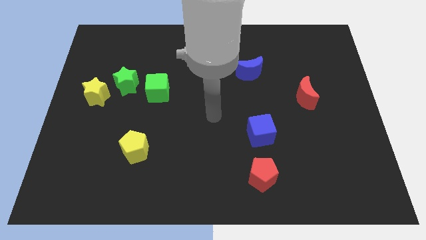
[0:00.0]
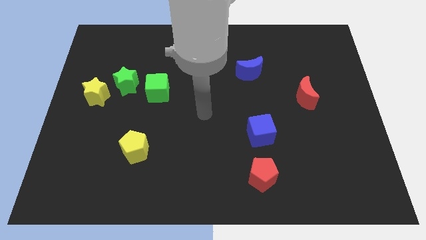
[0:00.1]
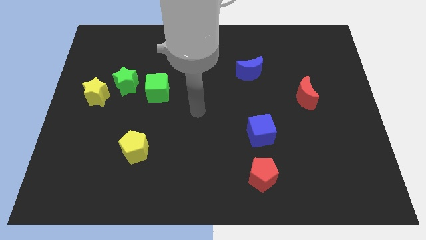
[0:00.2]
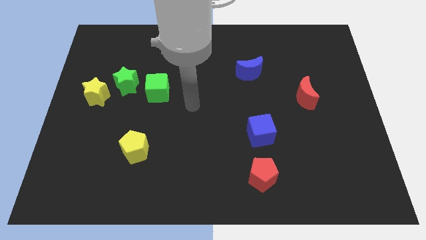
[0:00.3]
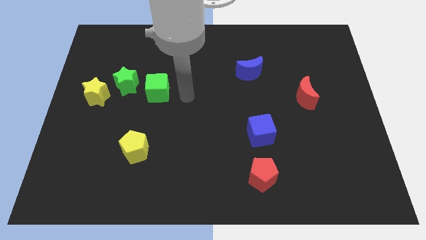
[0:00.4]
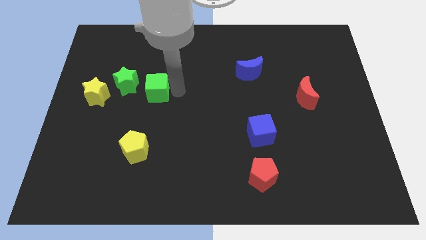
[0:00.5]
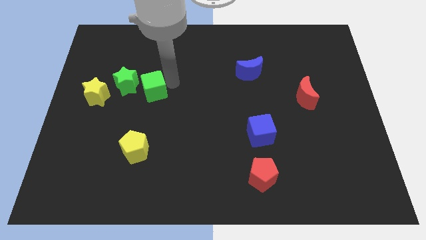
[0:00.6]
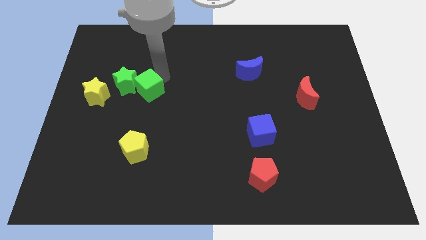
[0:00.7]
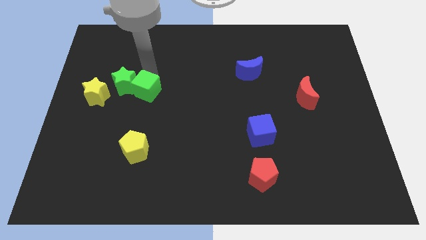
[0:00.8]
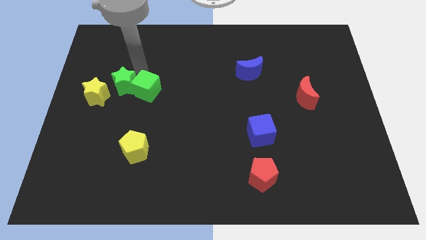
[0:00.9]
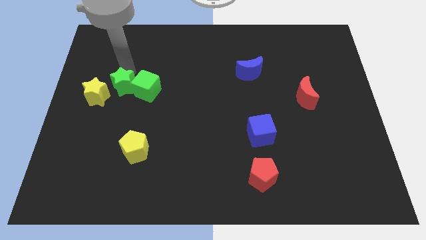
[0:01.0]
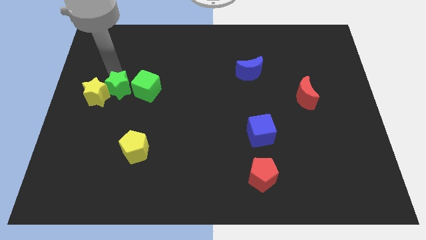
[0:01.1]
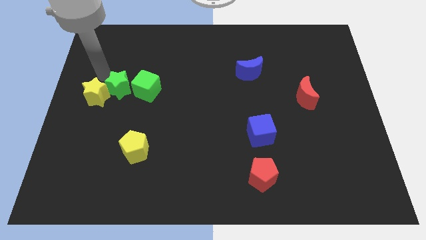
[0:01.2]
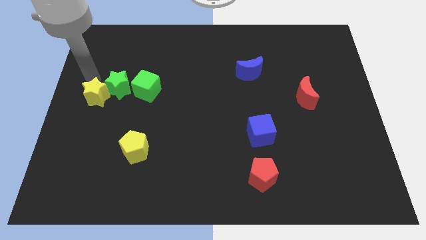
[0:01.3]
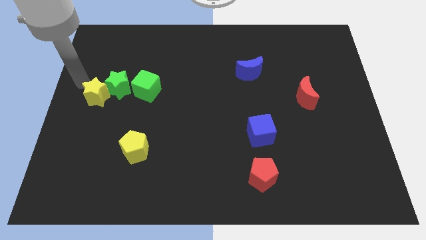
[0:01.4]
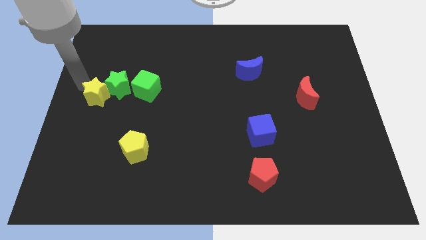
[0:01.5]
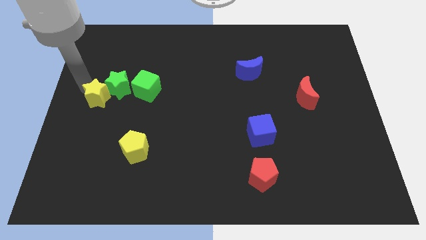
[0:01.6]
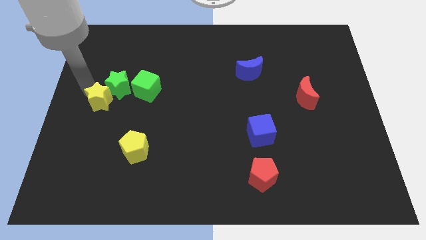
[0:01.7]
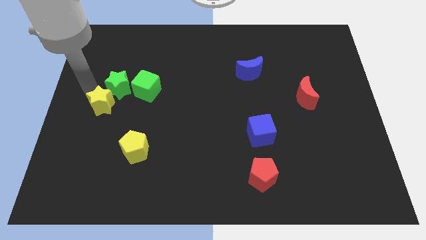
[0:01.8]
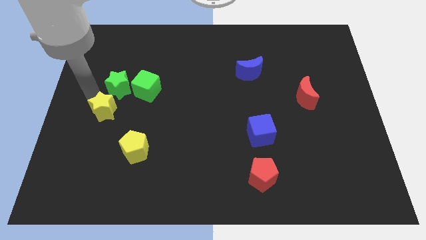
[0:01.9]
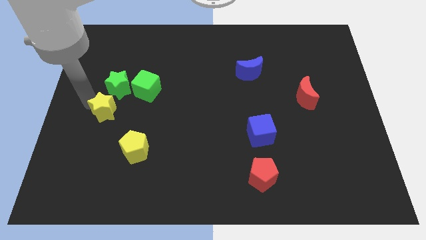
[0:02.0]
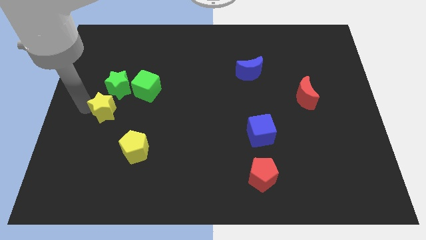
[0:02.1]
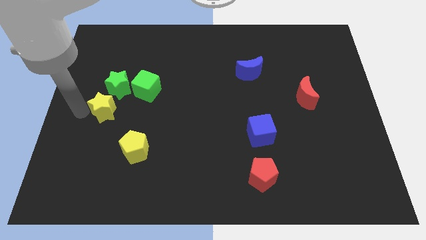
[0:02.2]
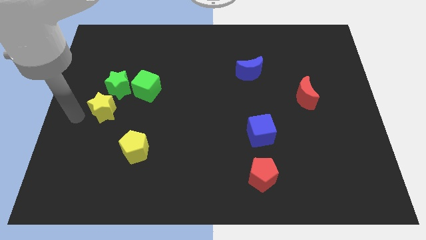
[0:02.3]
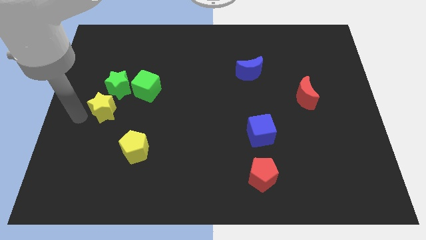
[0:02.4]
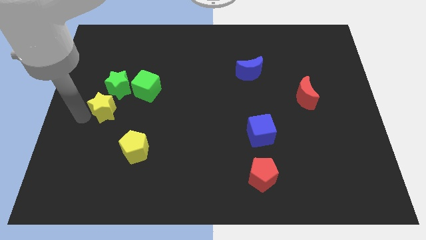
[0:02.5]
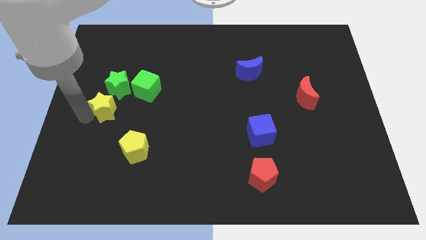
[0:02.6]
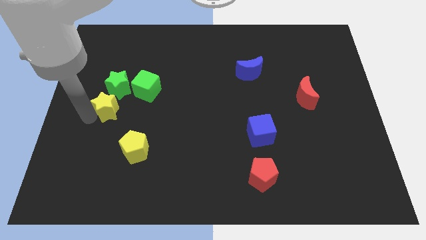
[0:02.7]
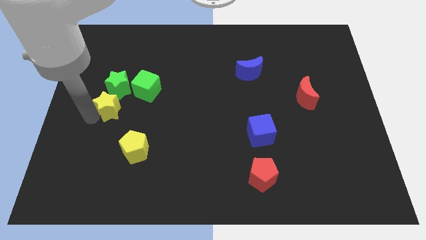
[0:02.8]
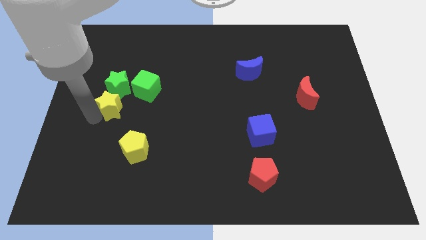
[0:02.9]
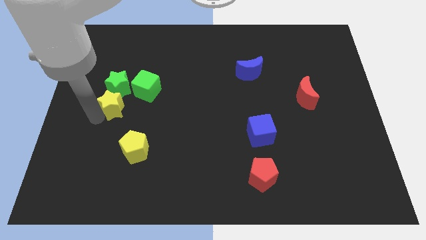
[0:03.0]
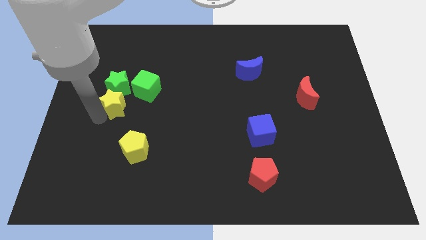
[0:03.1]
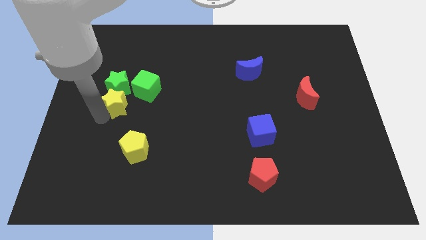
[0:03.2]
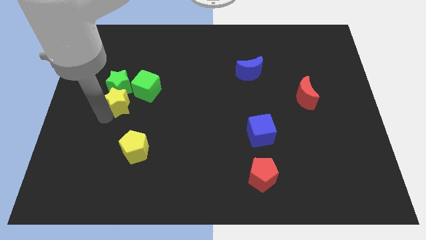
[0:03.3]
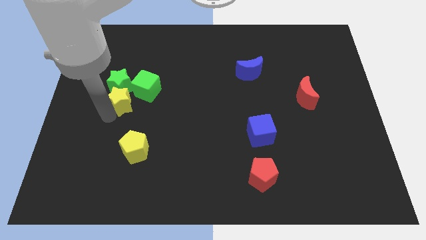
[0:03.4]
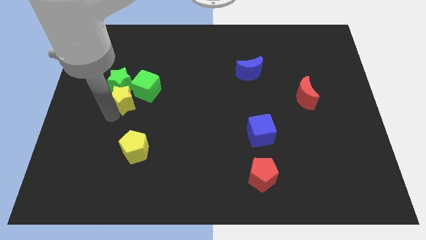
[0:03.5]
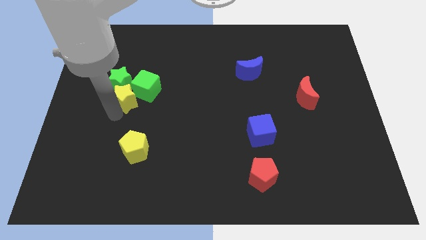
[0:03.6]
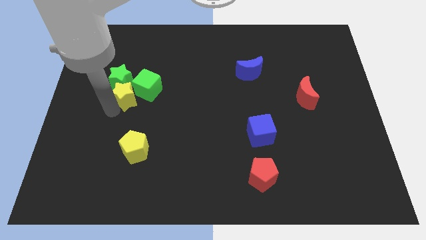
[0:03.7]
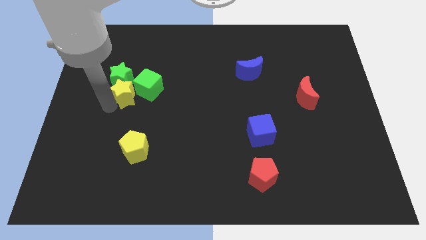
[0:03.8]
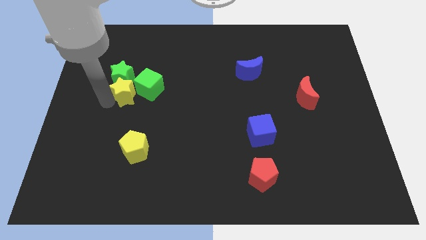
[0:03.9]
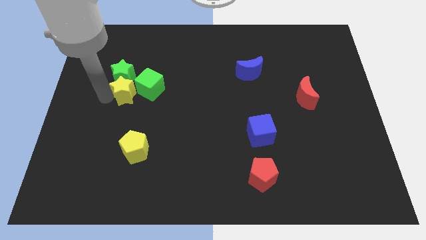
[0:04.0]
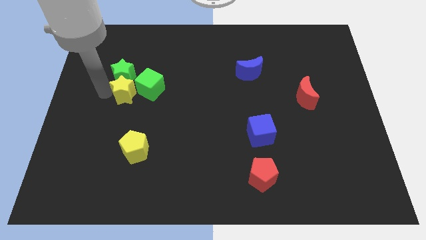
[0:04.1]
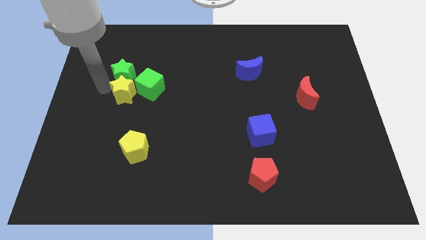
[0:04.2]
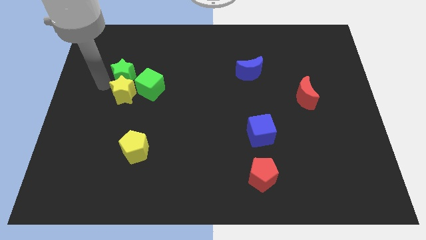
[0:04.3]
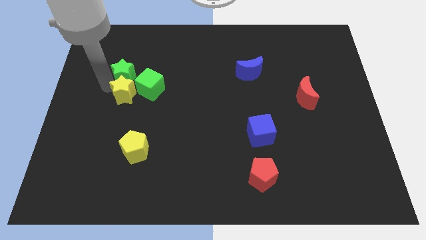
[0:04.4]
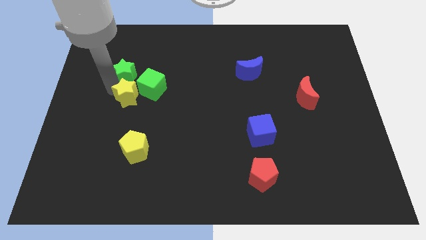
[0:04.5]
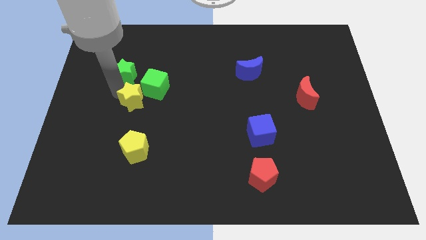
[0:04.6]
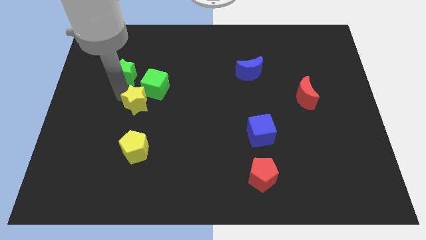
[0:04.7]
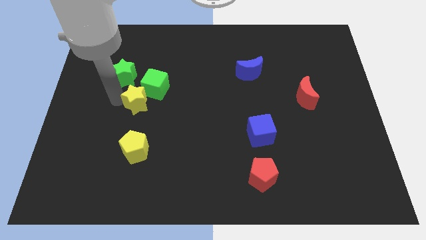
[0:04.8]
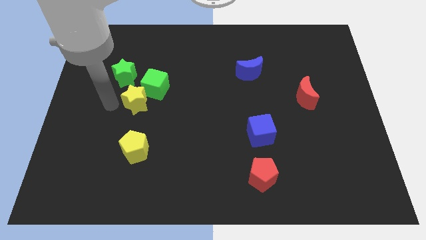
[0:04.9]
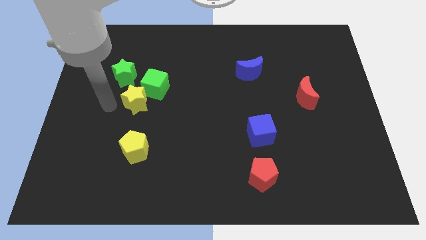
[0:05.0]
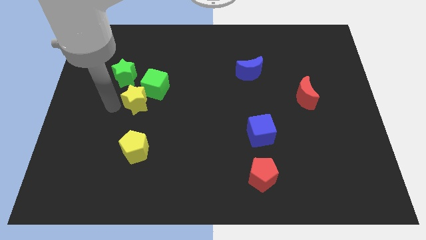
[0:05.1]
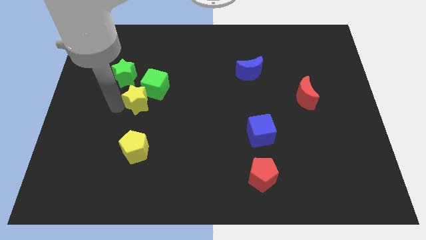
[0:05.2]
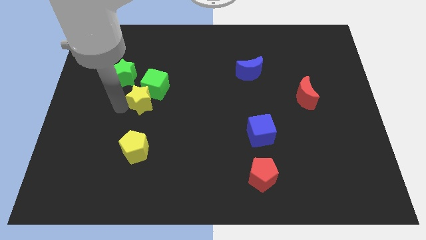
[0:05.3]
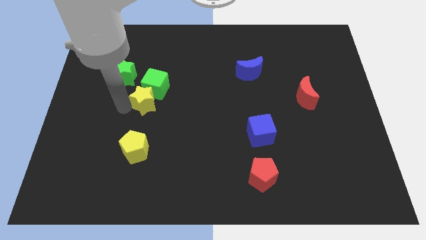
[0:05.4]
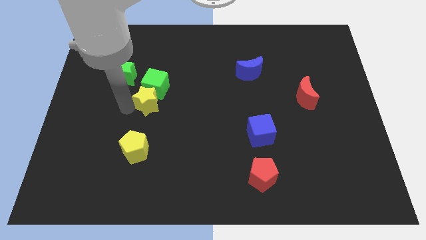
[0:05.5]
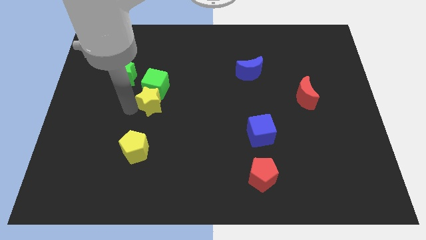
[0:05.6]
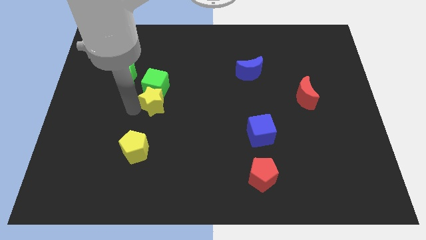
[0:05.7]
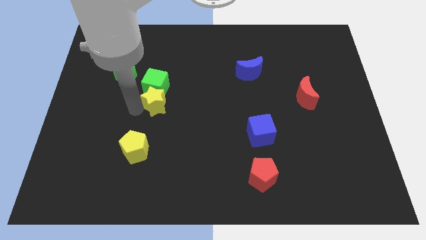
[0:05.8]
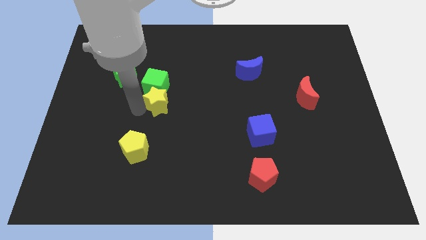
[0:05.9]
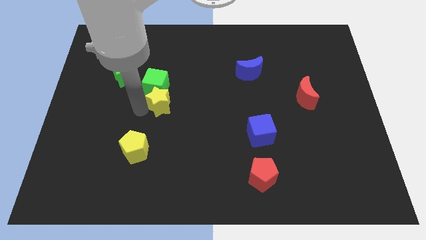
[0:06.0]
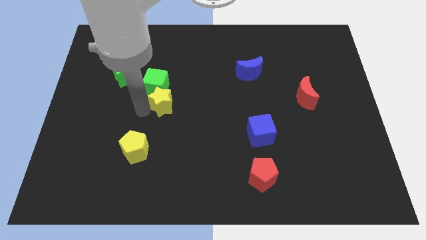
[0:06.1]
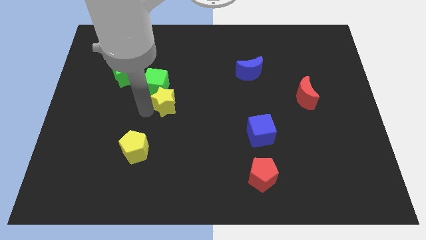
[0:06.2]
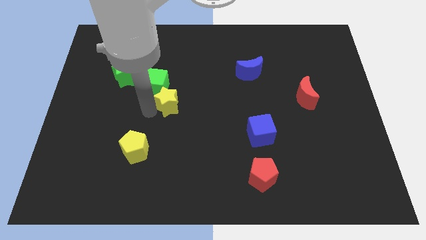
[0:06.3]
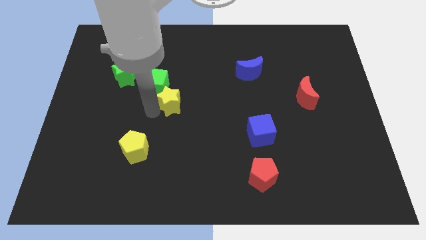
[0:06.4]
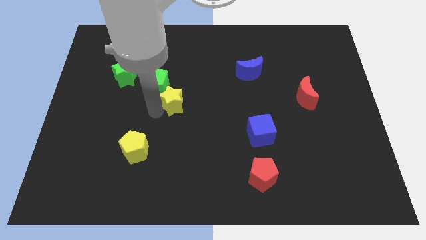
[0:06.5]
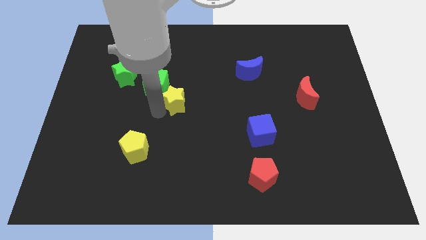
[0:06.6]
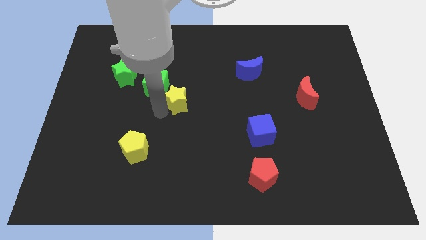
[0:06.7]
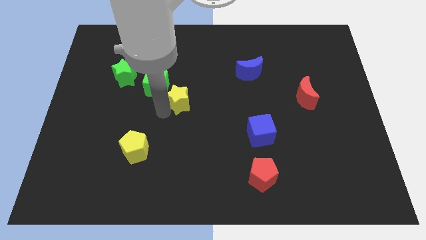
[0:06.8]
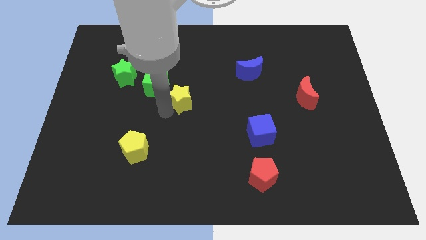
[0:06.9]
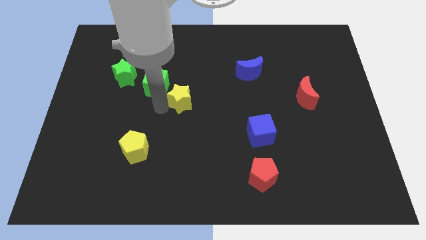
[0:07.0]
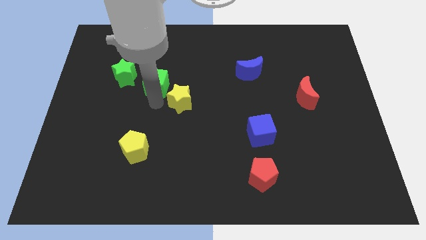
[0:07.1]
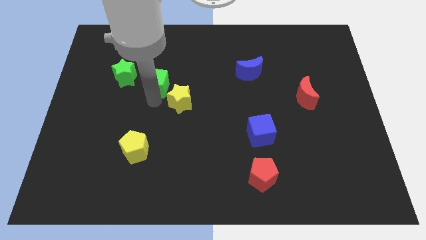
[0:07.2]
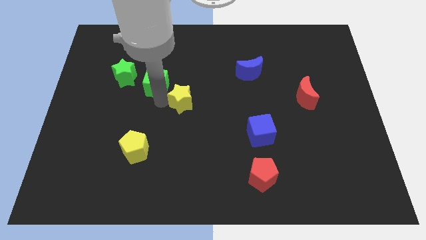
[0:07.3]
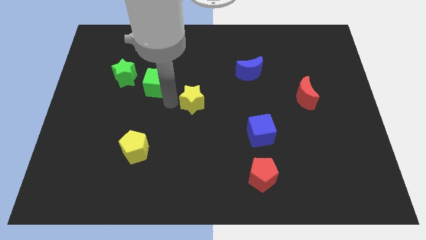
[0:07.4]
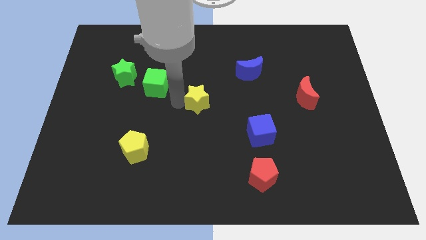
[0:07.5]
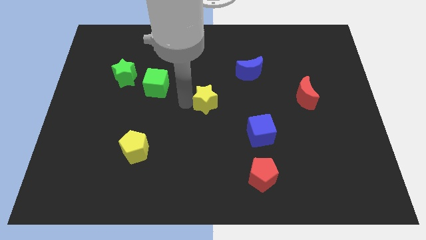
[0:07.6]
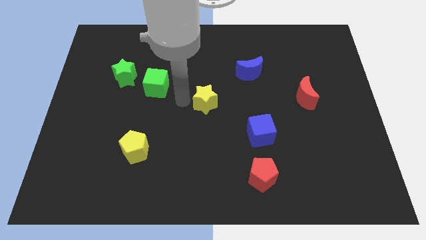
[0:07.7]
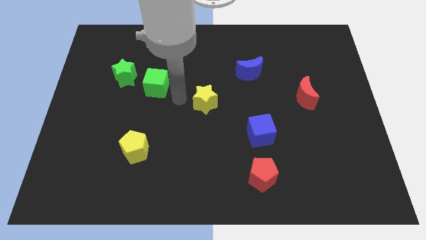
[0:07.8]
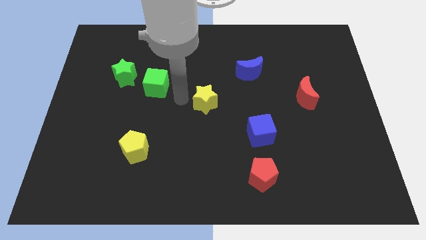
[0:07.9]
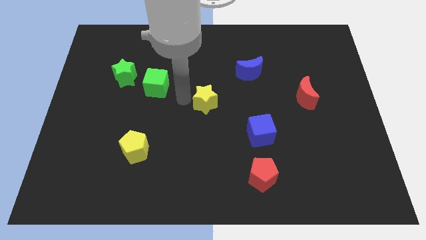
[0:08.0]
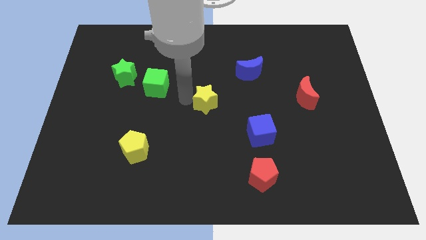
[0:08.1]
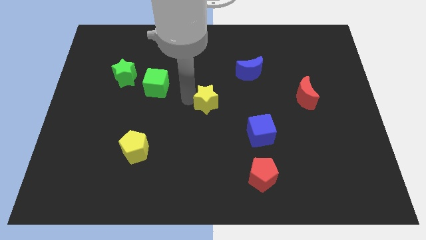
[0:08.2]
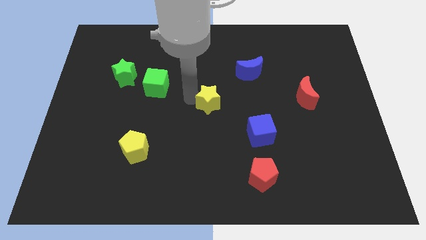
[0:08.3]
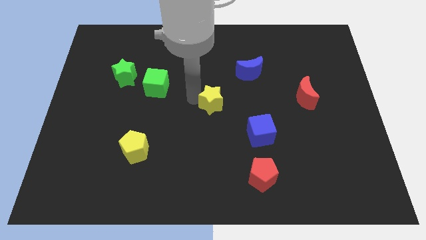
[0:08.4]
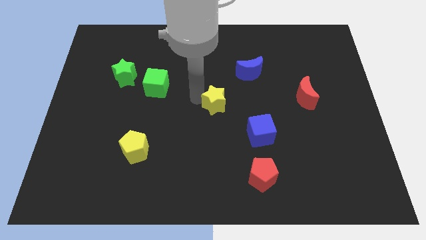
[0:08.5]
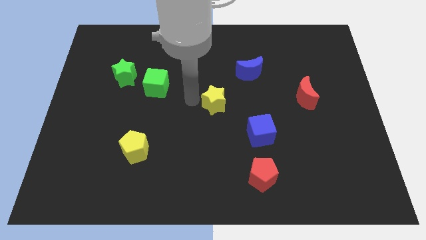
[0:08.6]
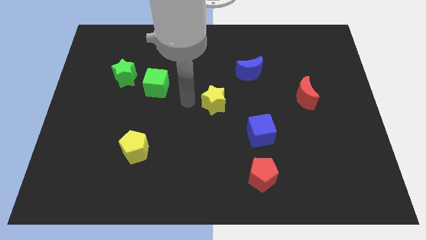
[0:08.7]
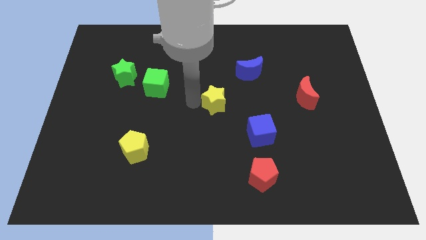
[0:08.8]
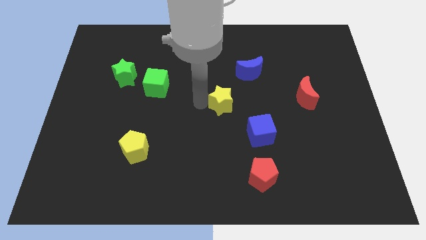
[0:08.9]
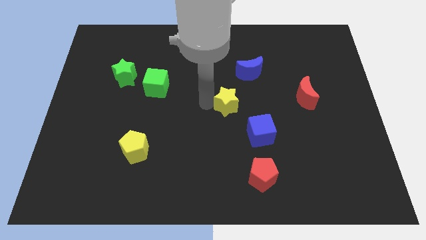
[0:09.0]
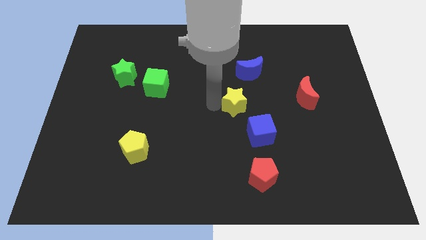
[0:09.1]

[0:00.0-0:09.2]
put the yellow star to the bottom side of the blue moon
